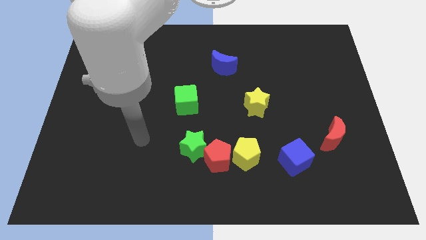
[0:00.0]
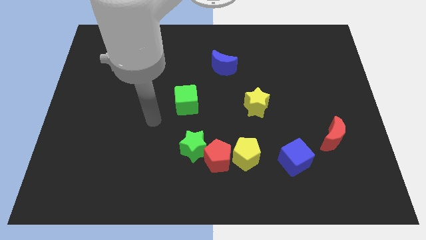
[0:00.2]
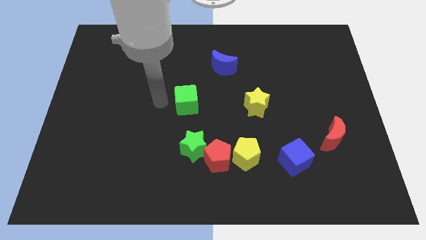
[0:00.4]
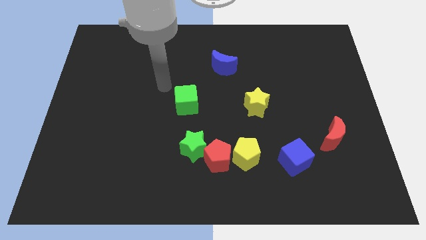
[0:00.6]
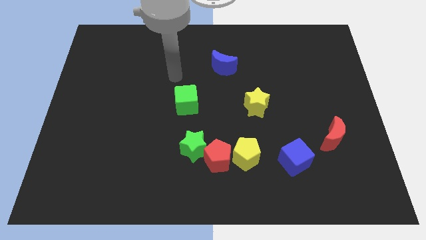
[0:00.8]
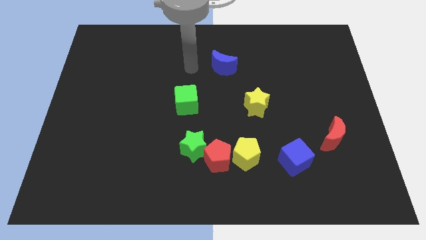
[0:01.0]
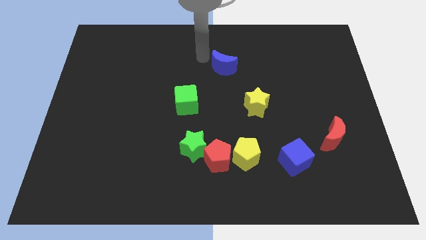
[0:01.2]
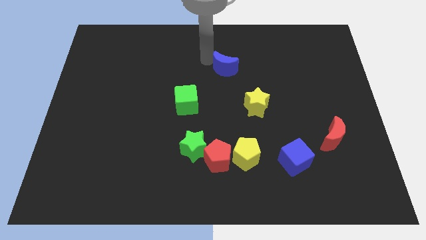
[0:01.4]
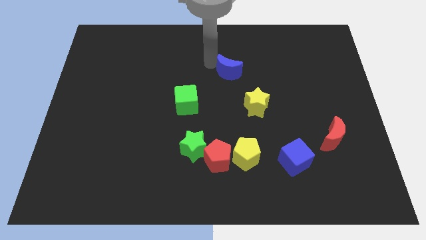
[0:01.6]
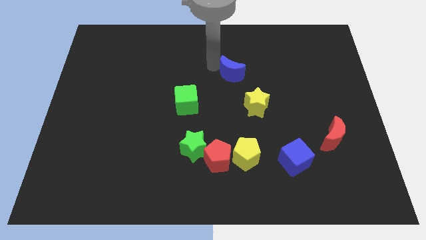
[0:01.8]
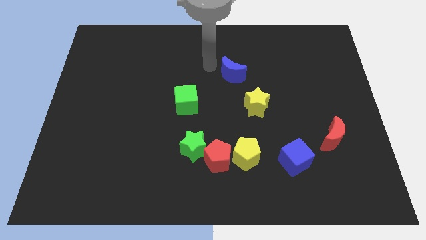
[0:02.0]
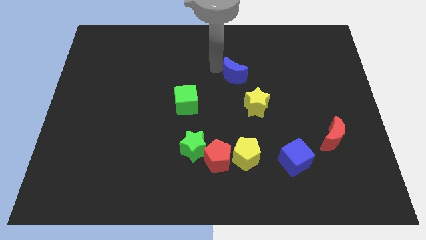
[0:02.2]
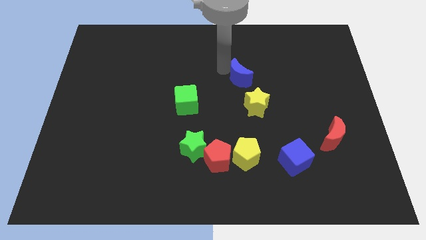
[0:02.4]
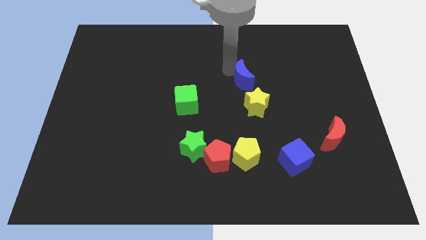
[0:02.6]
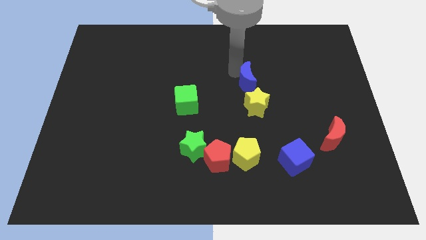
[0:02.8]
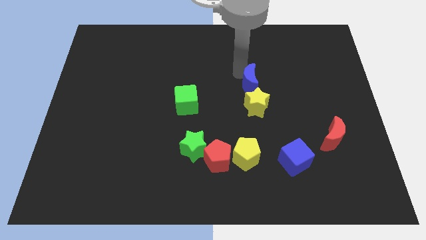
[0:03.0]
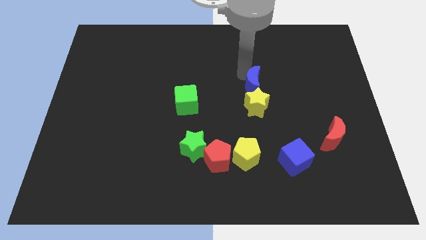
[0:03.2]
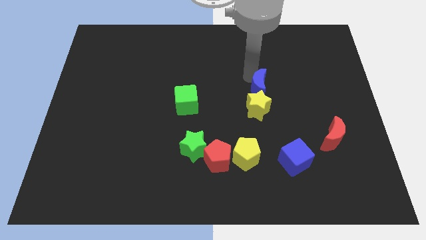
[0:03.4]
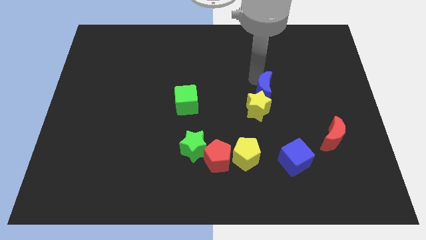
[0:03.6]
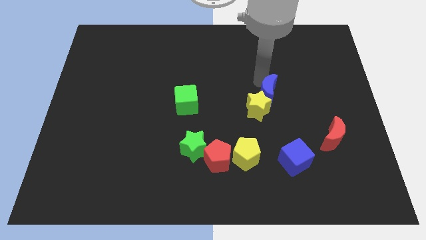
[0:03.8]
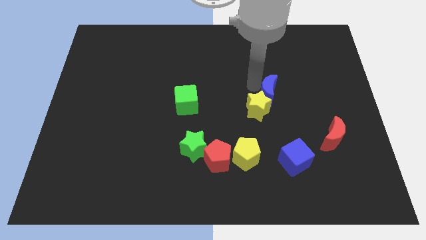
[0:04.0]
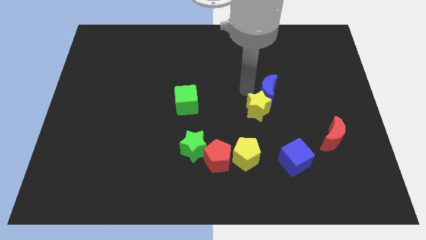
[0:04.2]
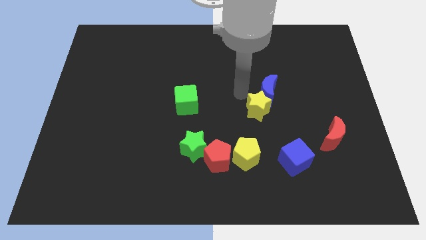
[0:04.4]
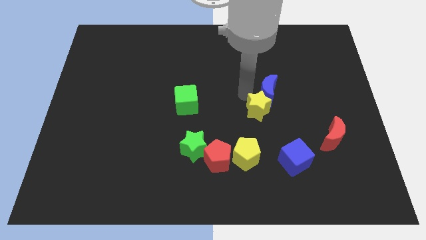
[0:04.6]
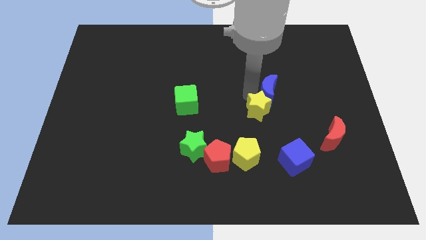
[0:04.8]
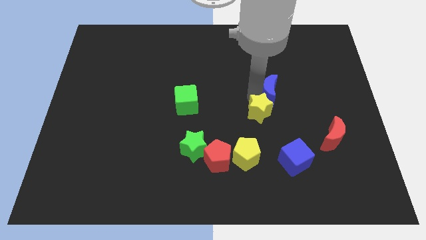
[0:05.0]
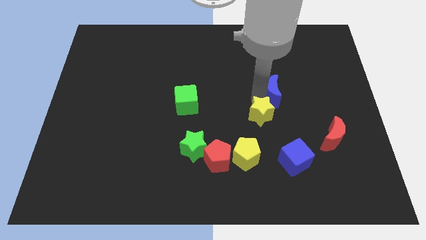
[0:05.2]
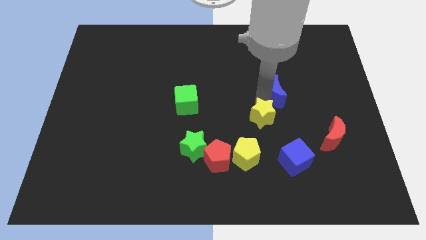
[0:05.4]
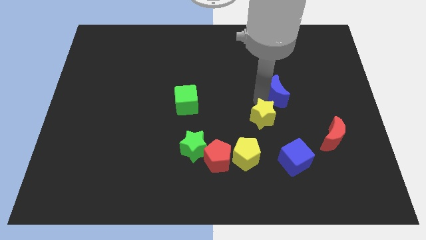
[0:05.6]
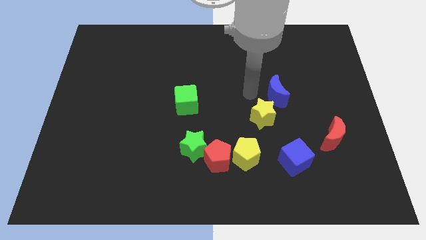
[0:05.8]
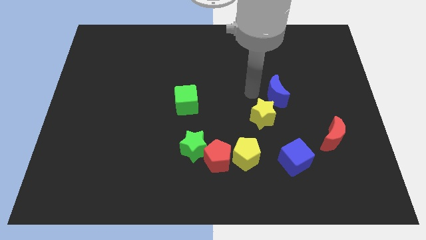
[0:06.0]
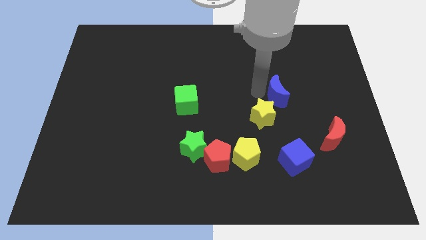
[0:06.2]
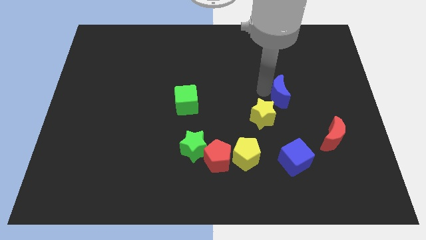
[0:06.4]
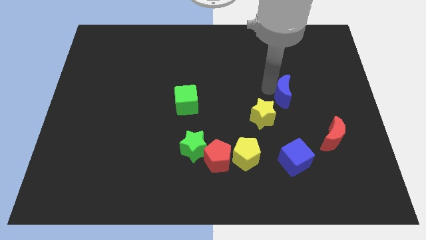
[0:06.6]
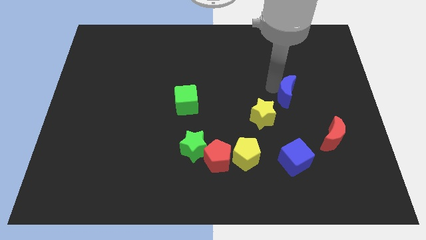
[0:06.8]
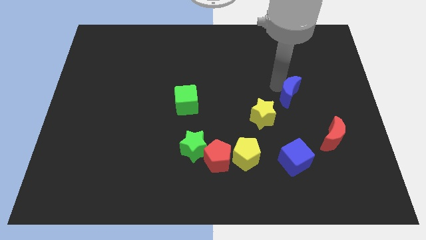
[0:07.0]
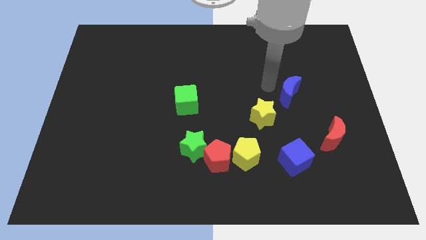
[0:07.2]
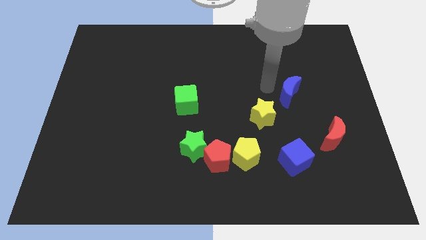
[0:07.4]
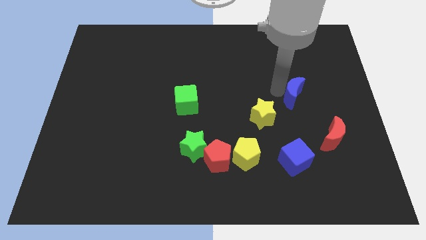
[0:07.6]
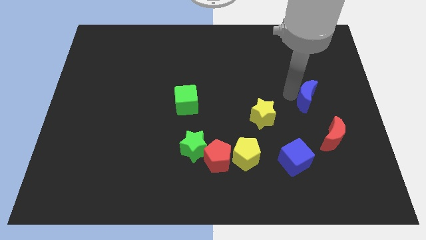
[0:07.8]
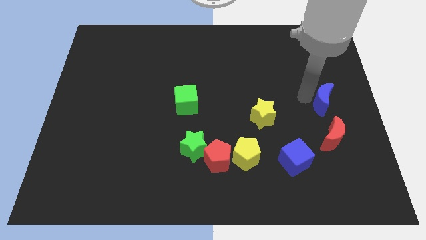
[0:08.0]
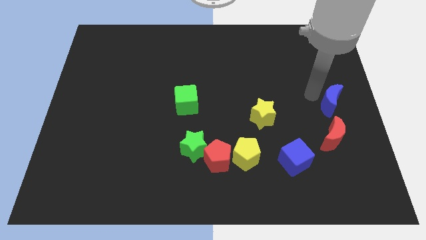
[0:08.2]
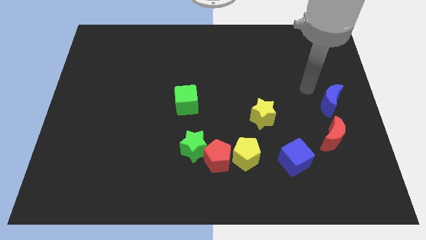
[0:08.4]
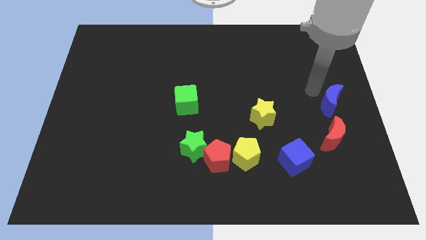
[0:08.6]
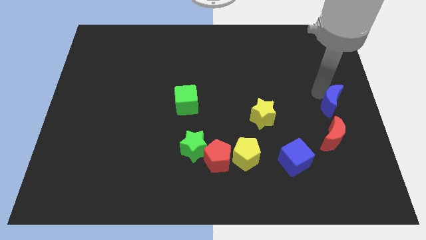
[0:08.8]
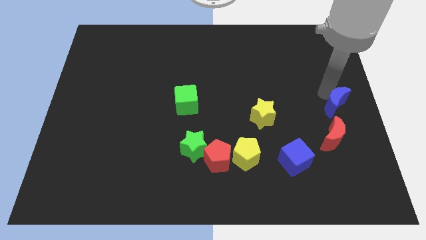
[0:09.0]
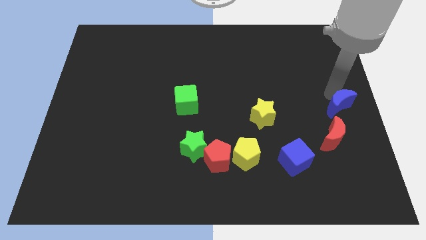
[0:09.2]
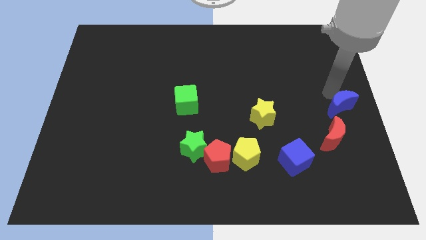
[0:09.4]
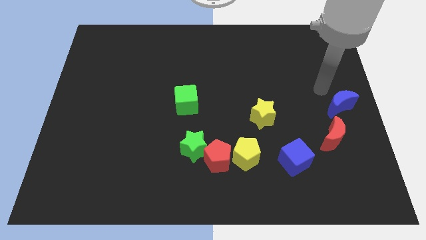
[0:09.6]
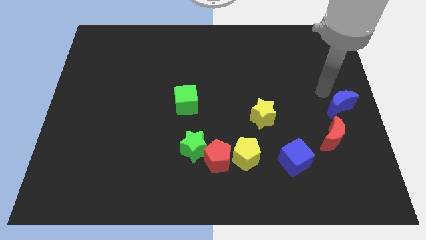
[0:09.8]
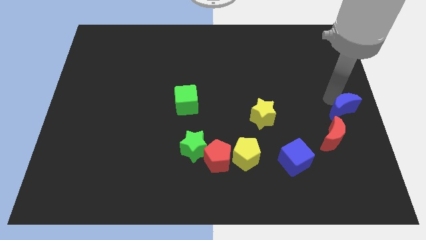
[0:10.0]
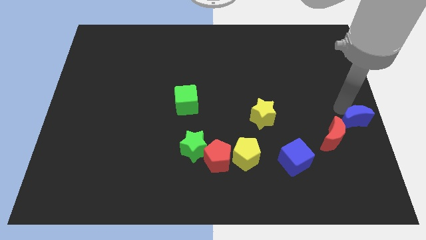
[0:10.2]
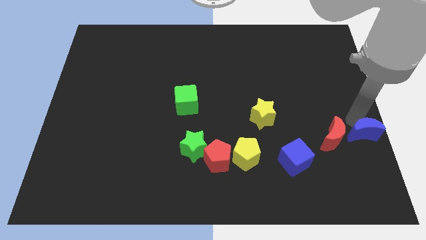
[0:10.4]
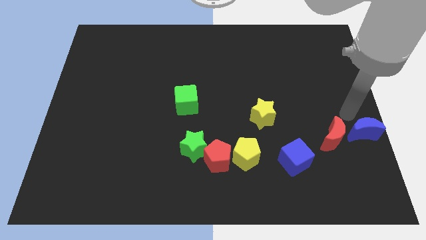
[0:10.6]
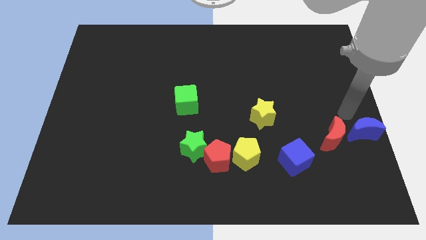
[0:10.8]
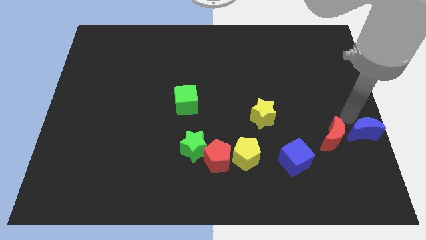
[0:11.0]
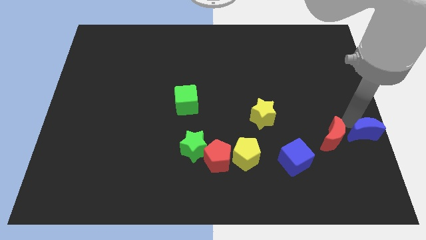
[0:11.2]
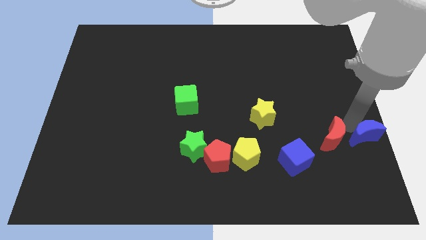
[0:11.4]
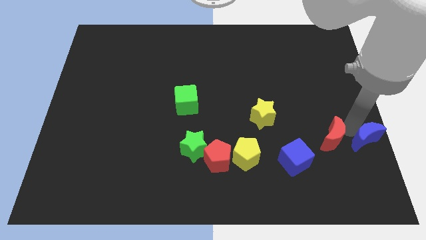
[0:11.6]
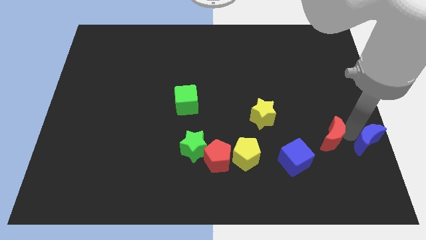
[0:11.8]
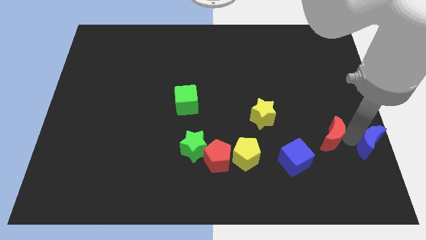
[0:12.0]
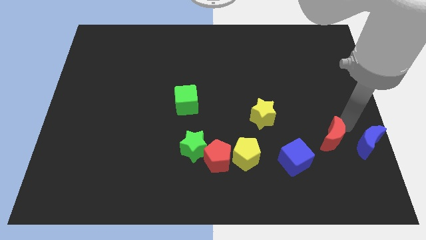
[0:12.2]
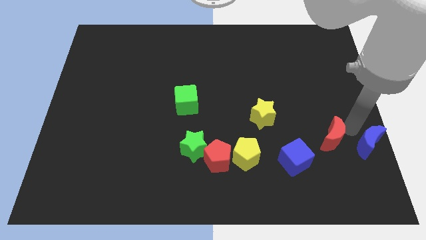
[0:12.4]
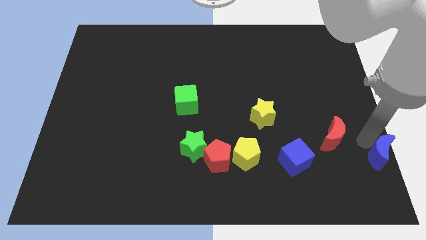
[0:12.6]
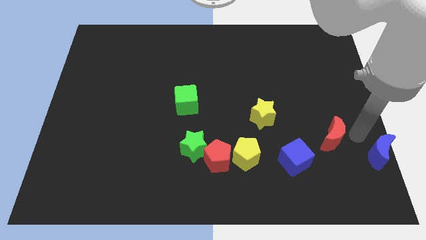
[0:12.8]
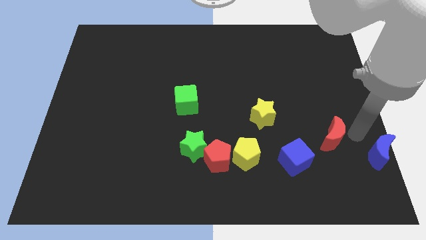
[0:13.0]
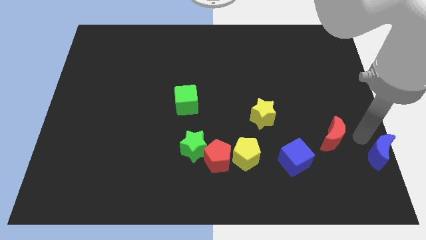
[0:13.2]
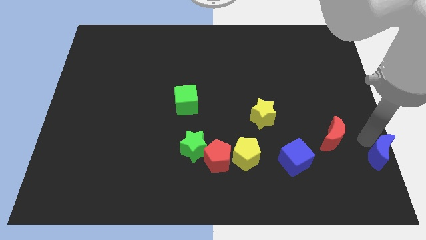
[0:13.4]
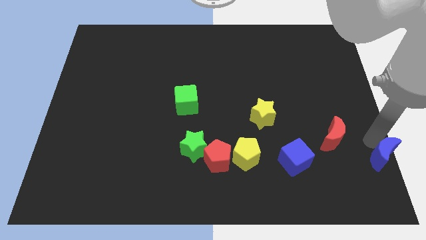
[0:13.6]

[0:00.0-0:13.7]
slide the blue moon to the bottom right corner
